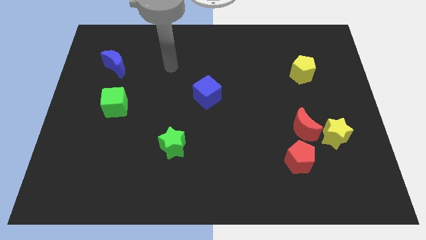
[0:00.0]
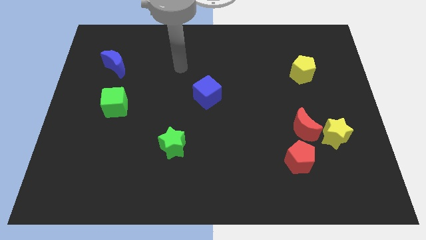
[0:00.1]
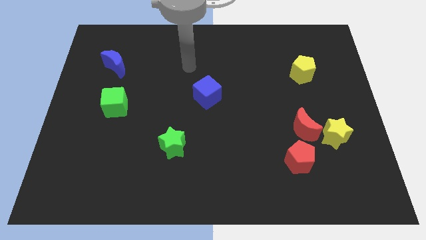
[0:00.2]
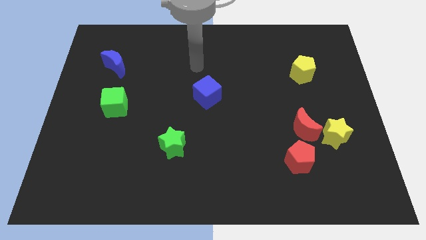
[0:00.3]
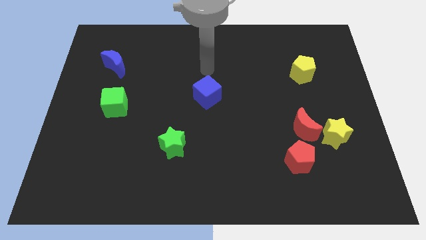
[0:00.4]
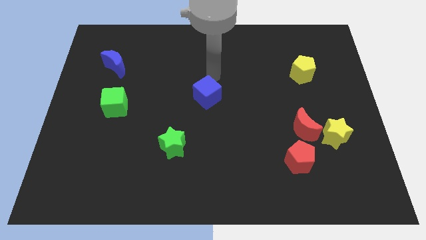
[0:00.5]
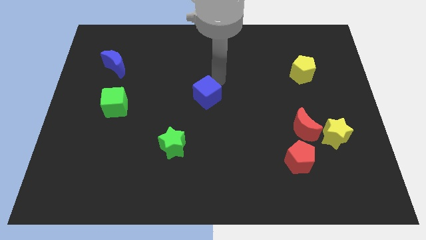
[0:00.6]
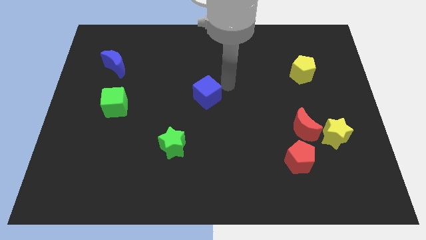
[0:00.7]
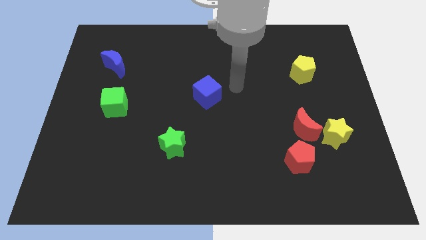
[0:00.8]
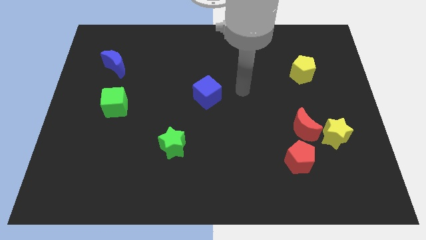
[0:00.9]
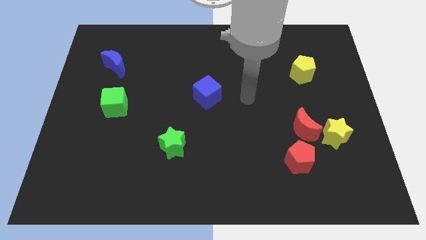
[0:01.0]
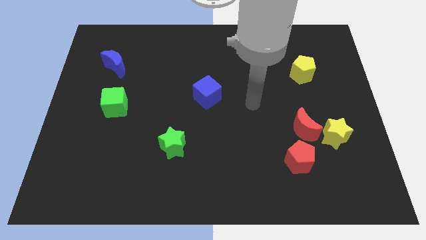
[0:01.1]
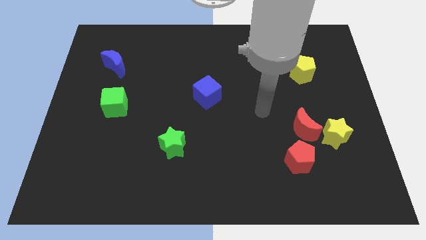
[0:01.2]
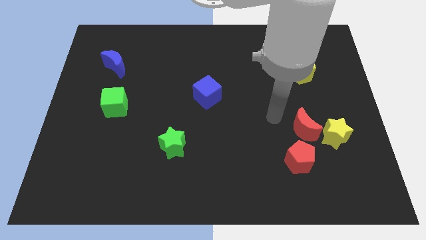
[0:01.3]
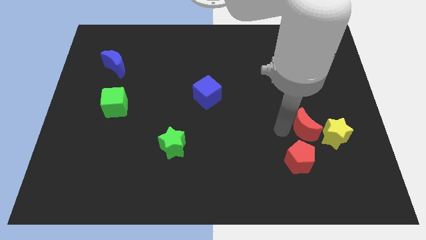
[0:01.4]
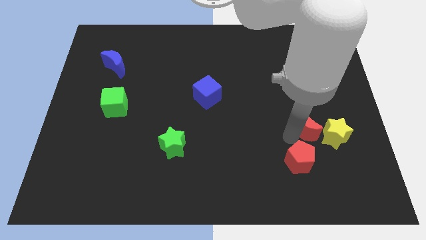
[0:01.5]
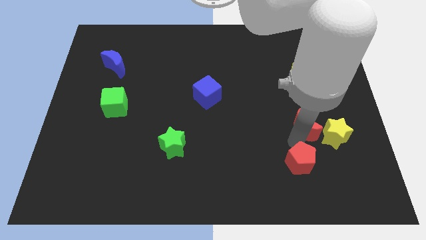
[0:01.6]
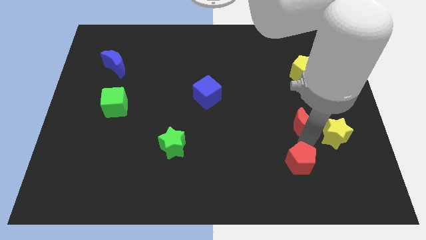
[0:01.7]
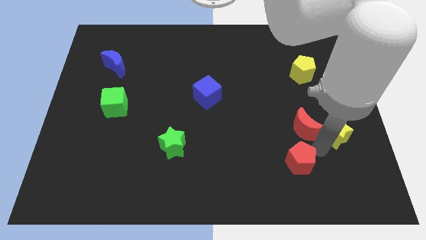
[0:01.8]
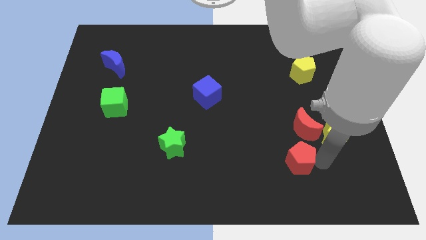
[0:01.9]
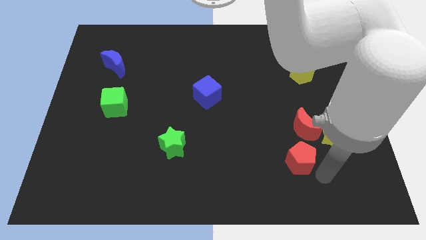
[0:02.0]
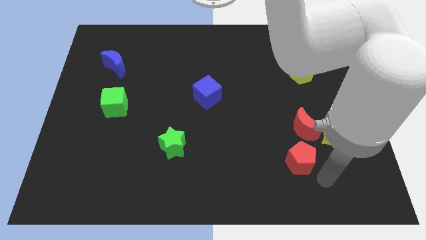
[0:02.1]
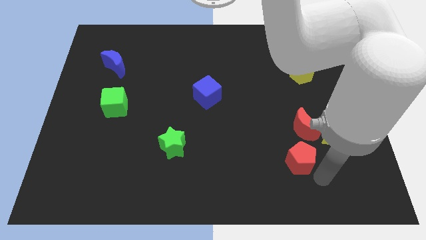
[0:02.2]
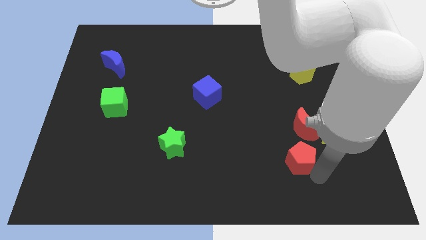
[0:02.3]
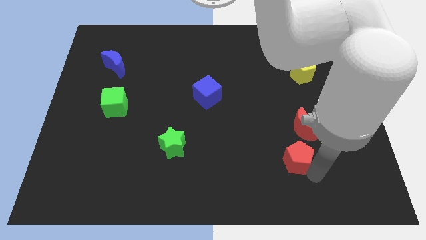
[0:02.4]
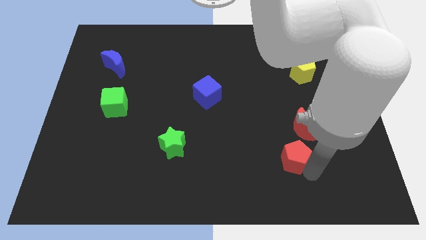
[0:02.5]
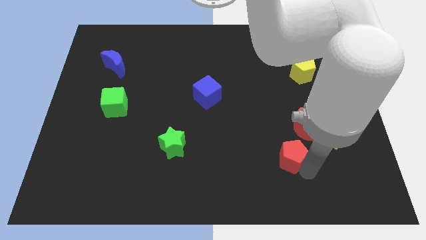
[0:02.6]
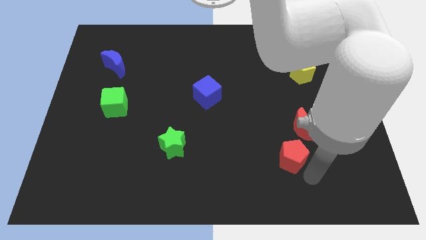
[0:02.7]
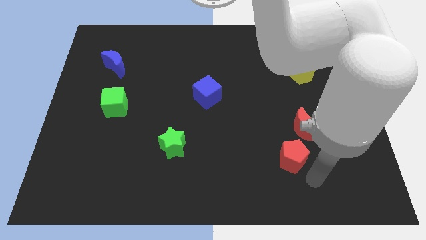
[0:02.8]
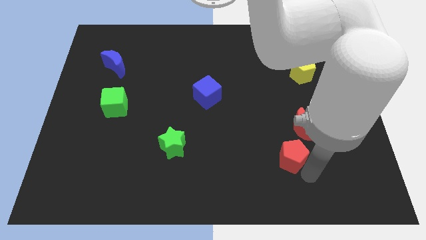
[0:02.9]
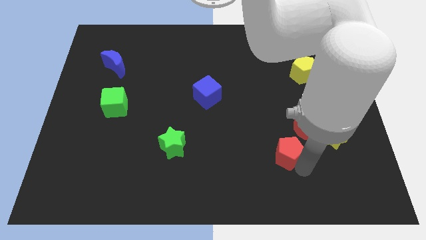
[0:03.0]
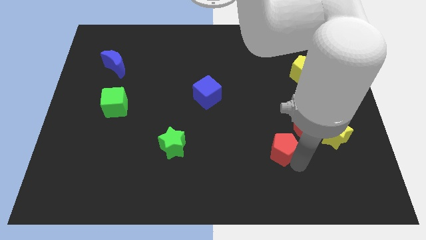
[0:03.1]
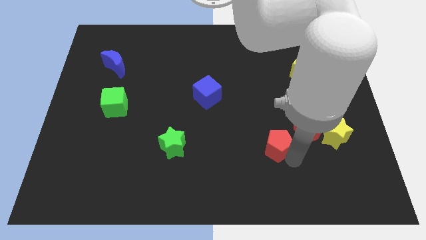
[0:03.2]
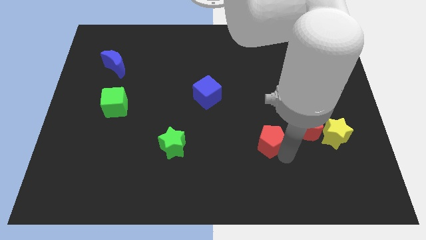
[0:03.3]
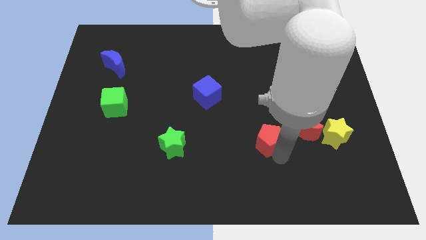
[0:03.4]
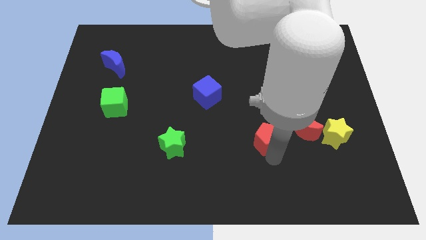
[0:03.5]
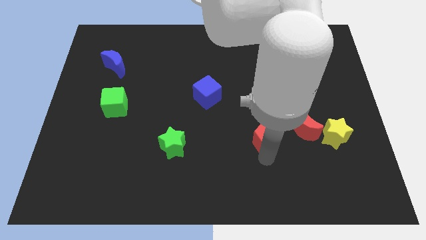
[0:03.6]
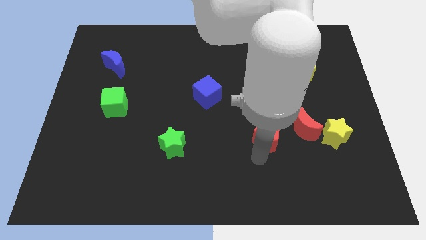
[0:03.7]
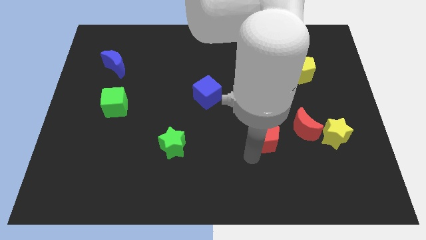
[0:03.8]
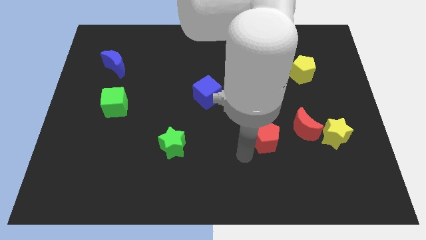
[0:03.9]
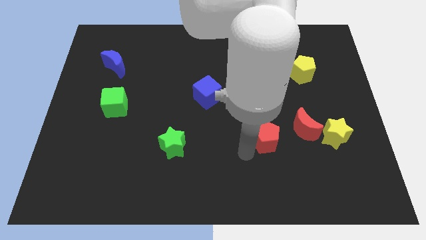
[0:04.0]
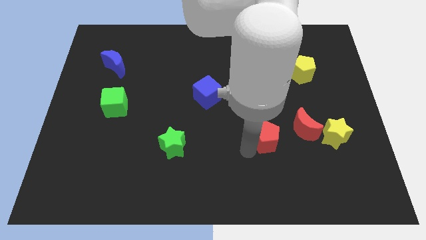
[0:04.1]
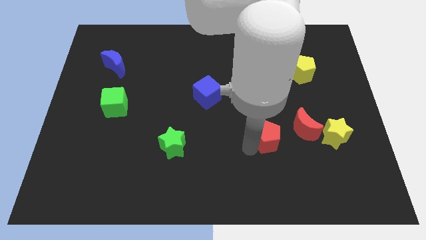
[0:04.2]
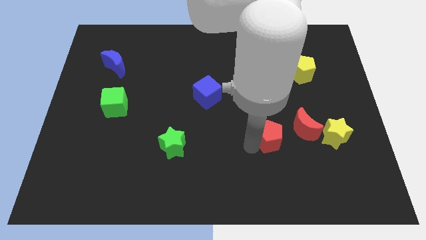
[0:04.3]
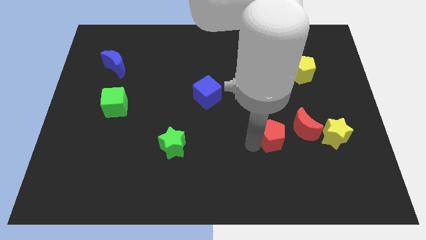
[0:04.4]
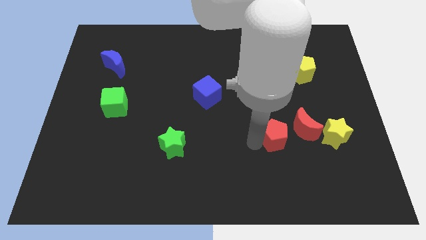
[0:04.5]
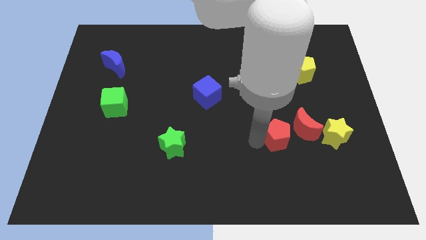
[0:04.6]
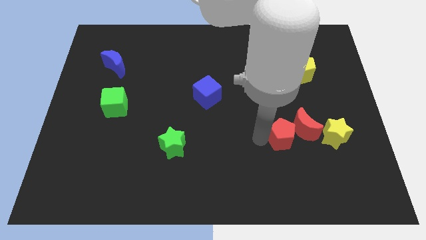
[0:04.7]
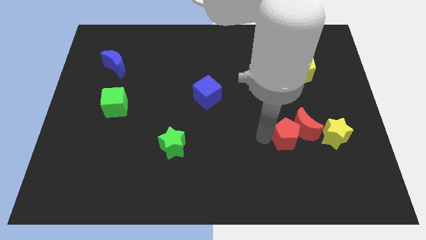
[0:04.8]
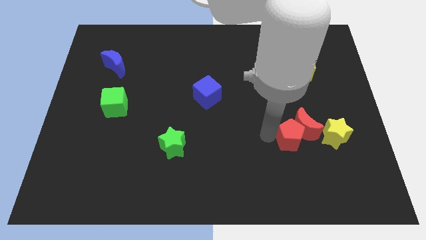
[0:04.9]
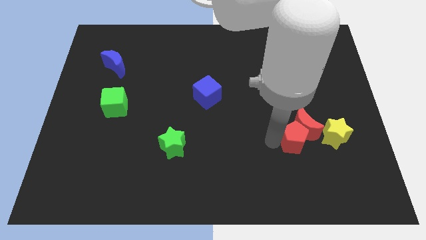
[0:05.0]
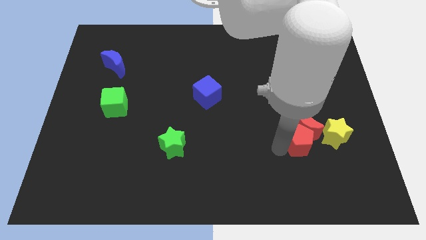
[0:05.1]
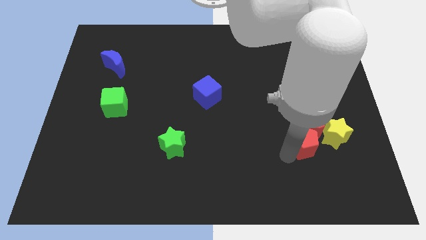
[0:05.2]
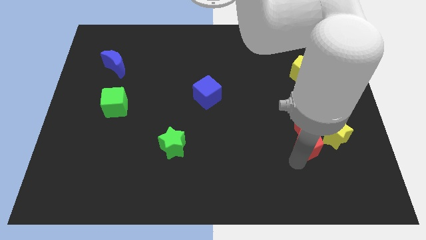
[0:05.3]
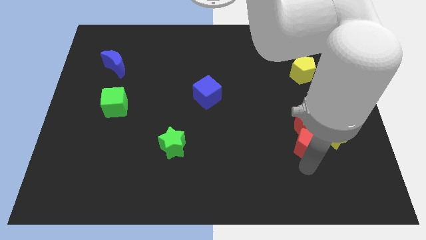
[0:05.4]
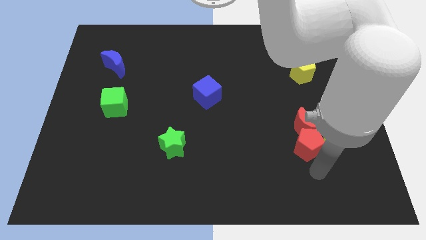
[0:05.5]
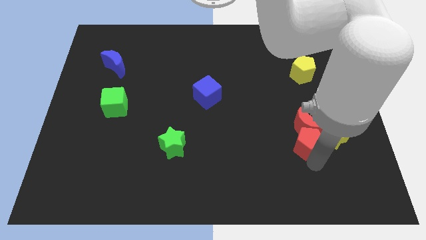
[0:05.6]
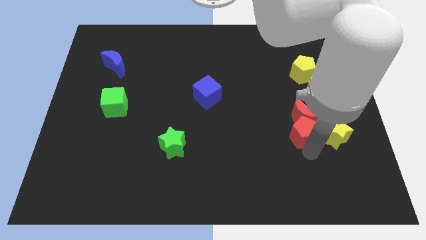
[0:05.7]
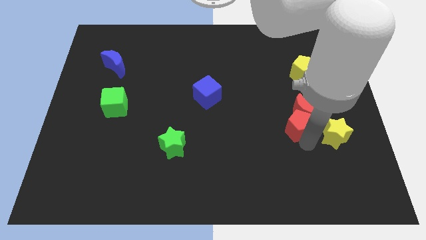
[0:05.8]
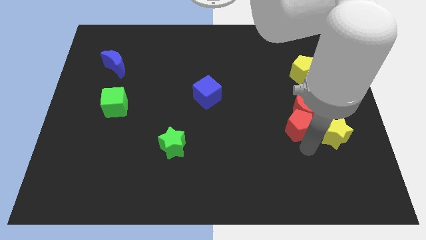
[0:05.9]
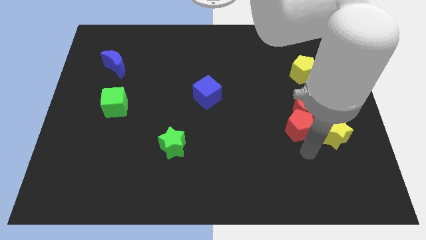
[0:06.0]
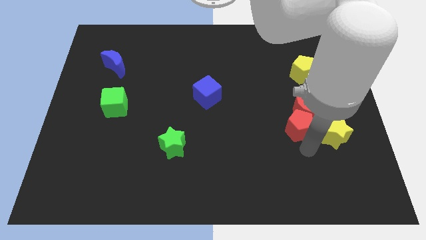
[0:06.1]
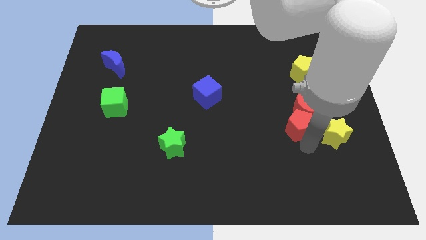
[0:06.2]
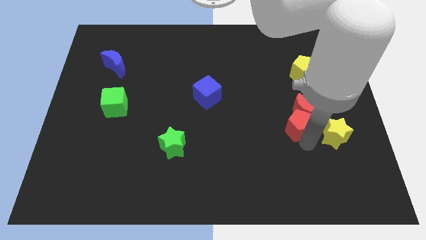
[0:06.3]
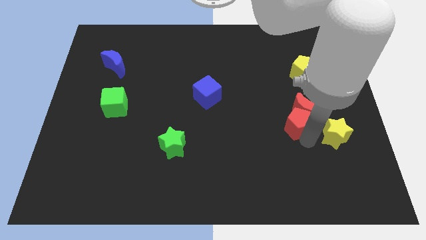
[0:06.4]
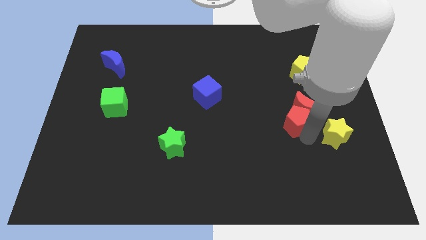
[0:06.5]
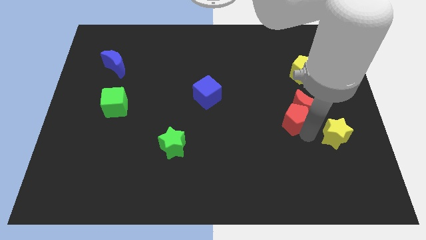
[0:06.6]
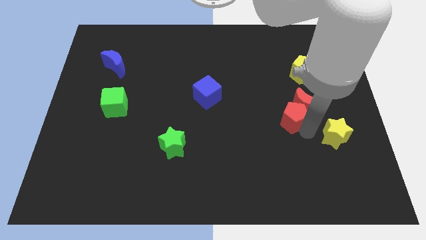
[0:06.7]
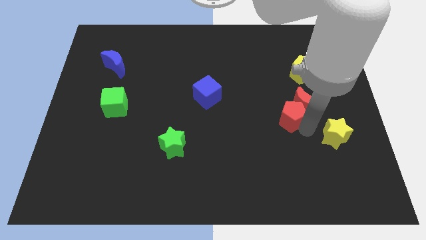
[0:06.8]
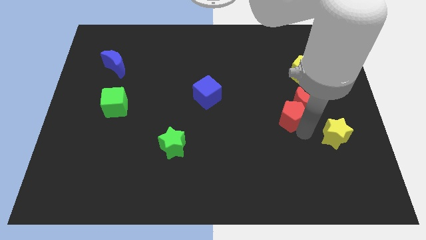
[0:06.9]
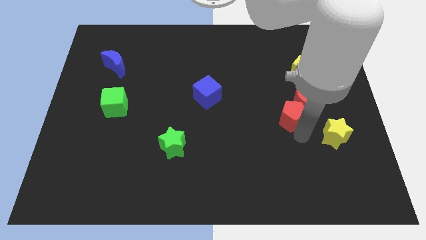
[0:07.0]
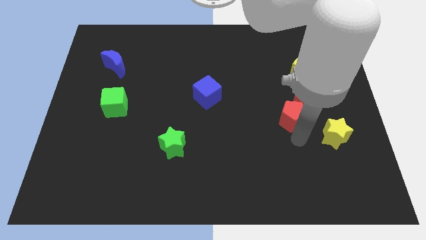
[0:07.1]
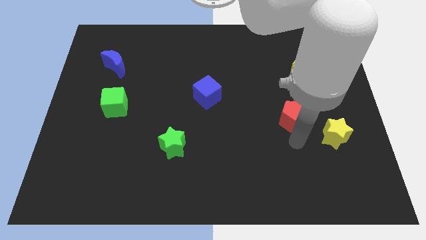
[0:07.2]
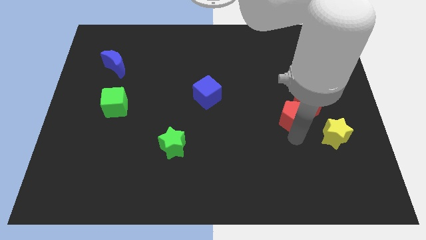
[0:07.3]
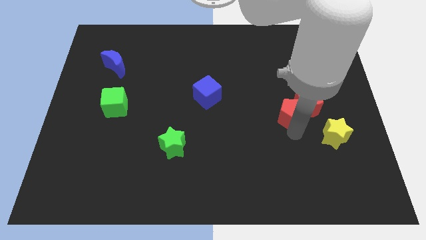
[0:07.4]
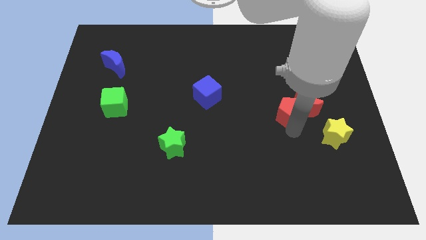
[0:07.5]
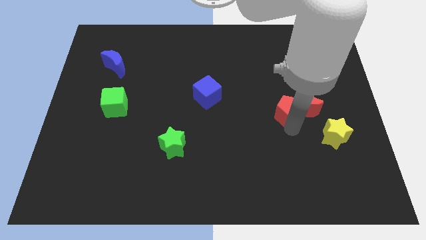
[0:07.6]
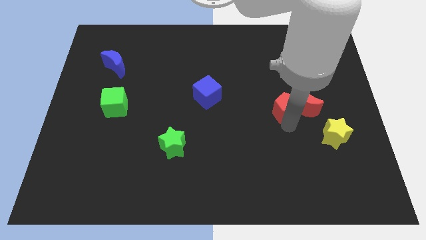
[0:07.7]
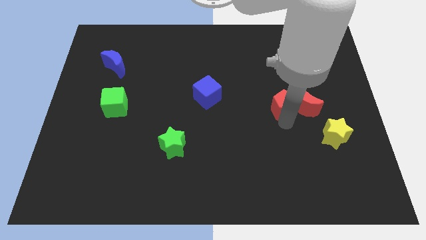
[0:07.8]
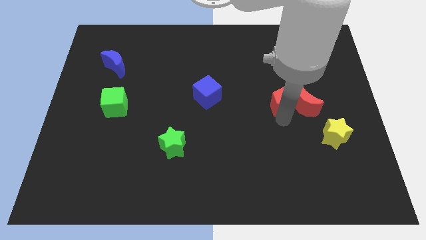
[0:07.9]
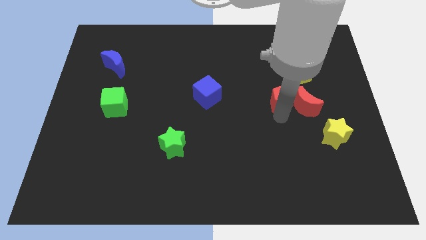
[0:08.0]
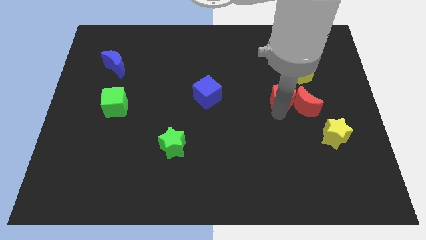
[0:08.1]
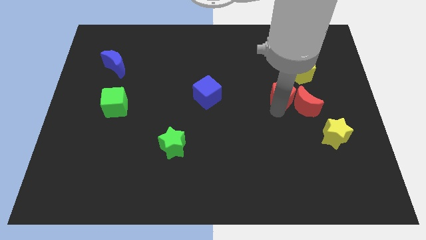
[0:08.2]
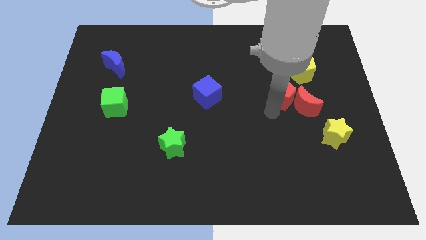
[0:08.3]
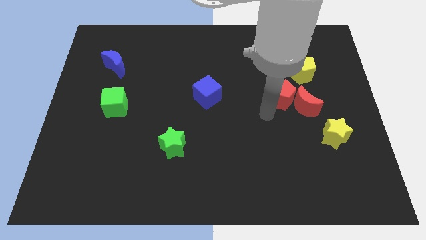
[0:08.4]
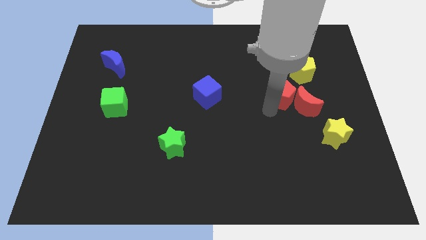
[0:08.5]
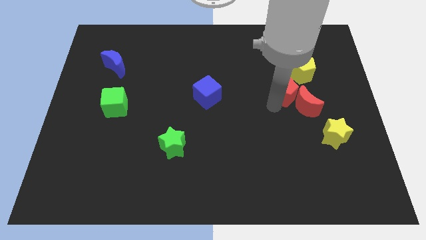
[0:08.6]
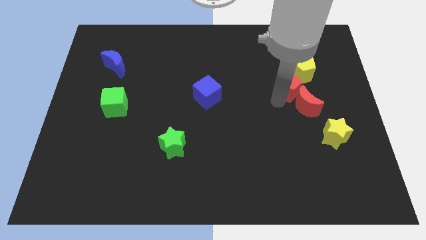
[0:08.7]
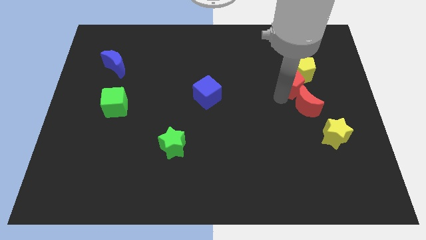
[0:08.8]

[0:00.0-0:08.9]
move the red pentagon towards the yellow pentagon
